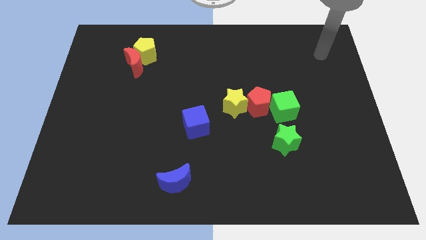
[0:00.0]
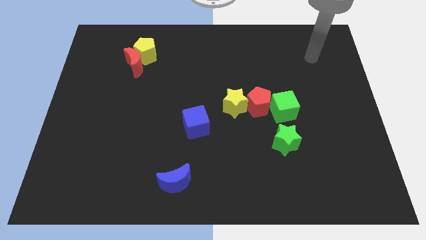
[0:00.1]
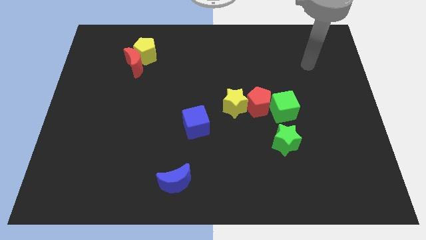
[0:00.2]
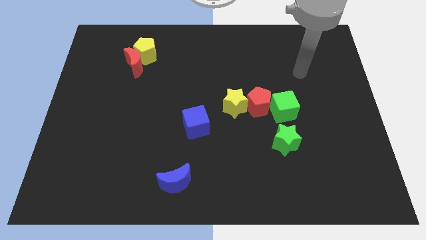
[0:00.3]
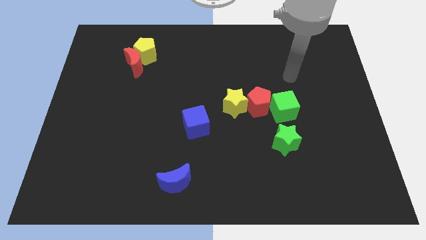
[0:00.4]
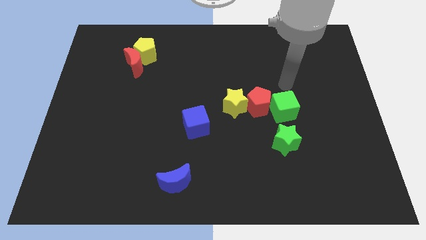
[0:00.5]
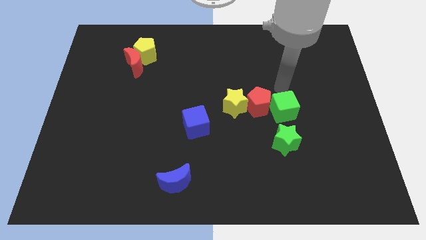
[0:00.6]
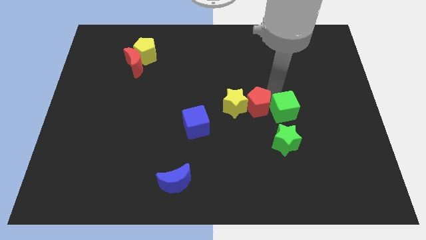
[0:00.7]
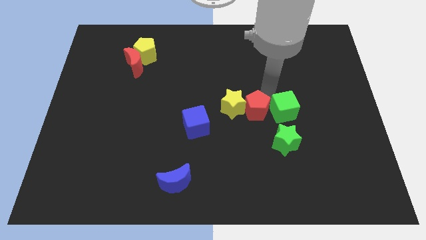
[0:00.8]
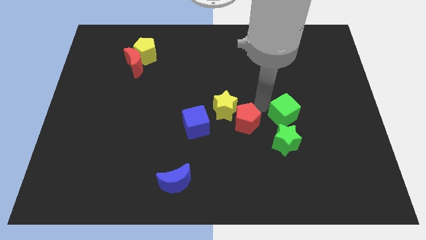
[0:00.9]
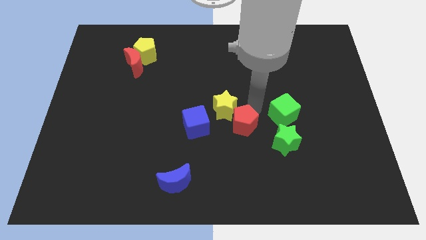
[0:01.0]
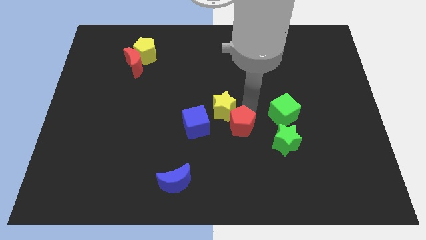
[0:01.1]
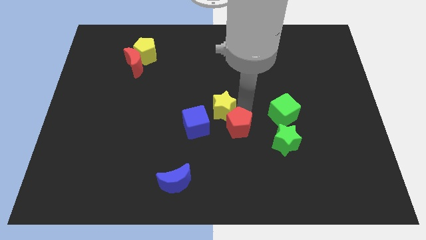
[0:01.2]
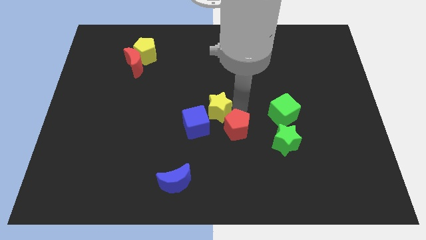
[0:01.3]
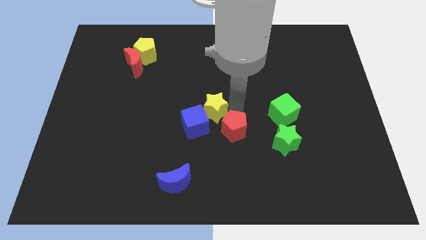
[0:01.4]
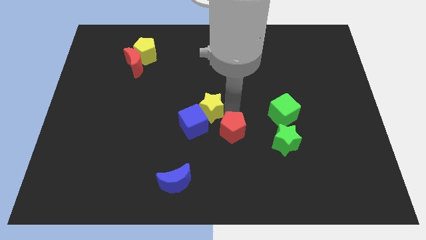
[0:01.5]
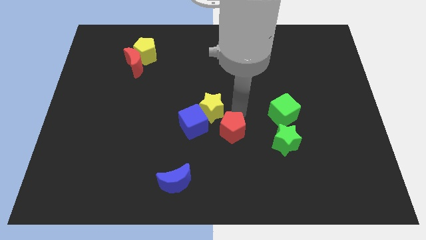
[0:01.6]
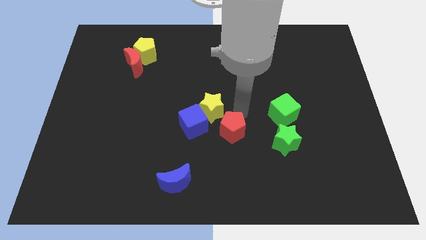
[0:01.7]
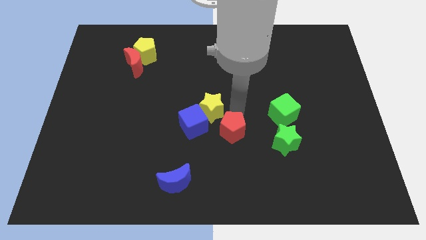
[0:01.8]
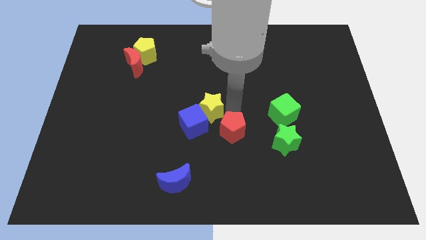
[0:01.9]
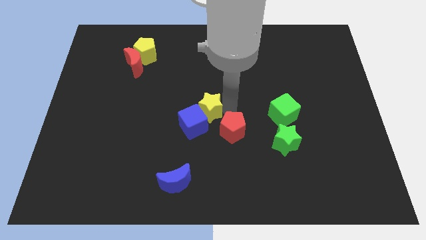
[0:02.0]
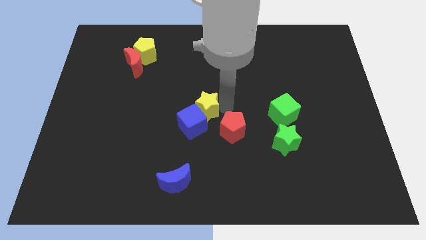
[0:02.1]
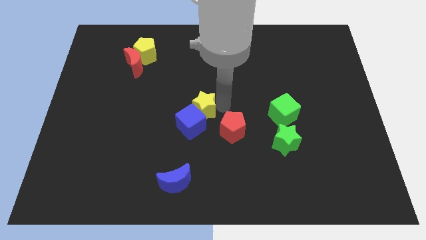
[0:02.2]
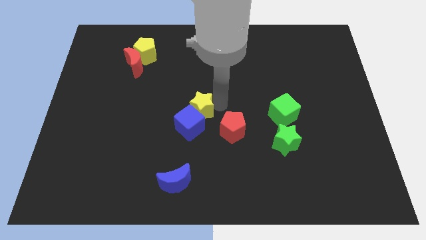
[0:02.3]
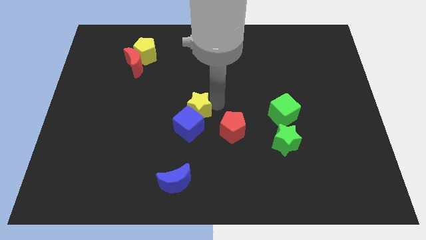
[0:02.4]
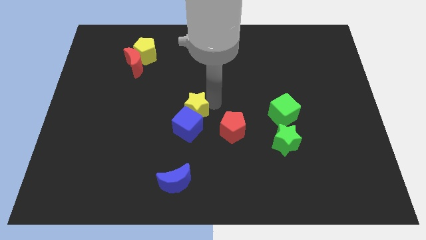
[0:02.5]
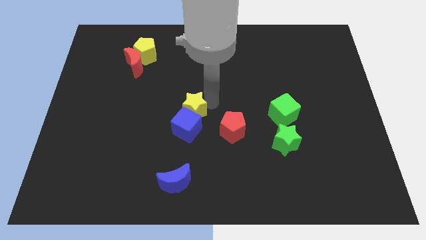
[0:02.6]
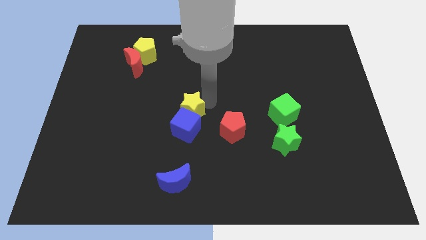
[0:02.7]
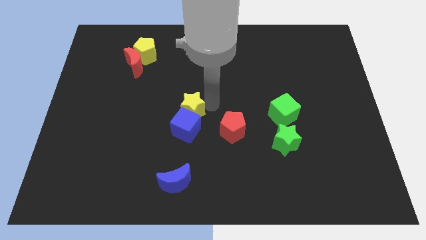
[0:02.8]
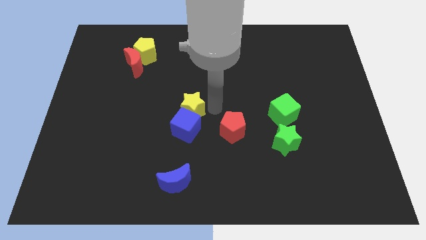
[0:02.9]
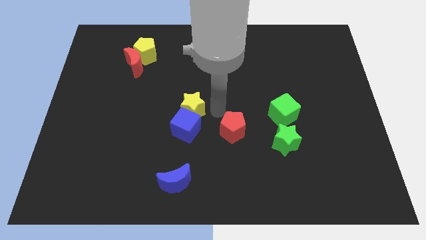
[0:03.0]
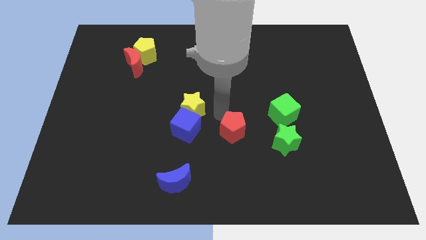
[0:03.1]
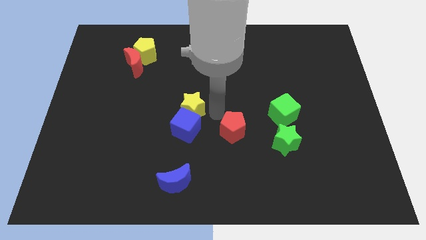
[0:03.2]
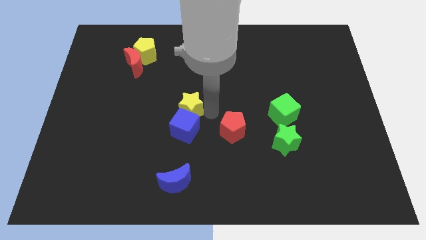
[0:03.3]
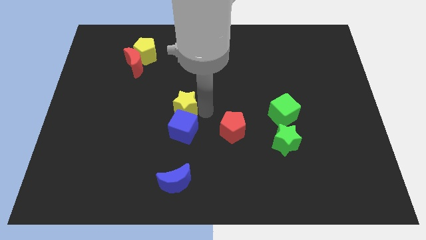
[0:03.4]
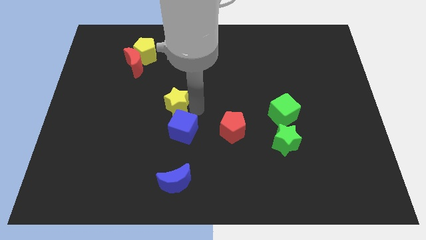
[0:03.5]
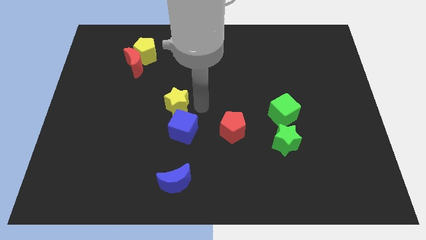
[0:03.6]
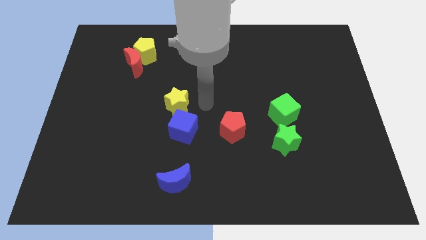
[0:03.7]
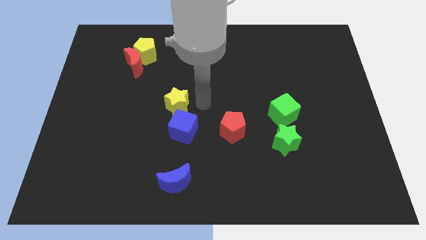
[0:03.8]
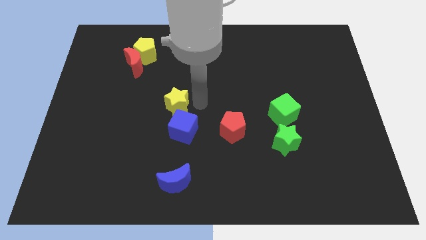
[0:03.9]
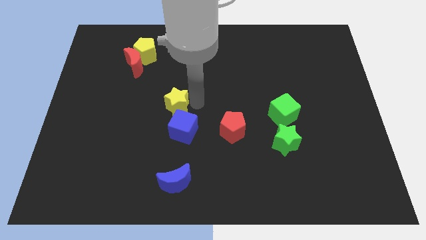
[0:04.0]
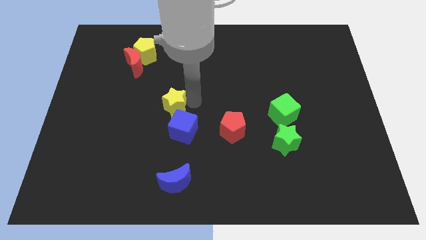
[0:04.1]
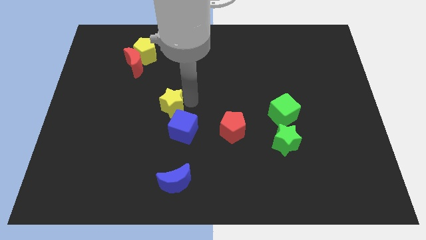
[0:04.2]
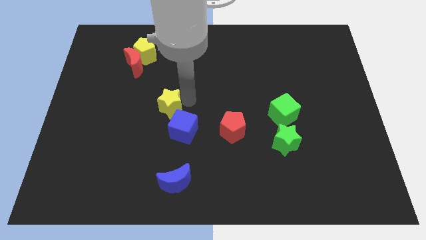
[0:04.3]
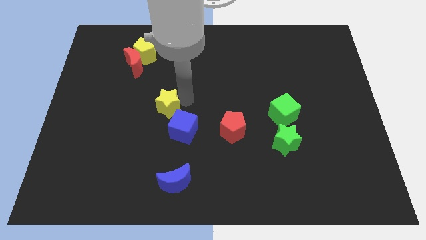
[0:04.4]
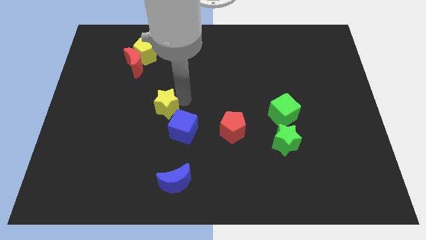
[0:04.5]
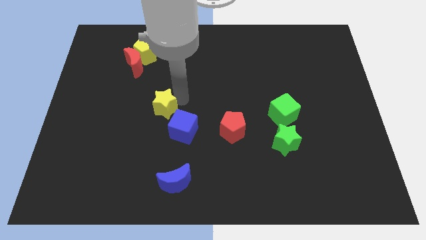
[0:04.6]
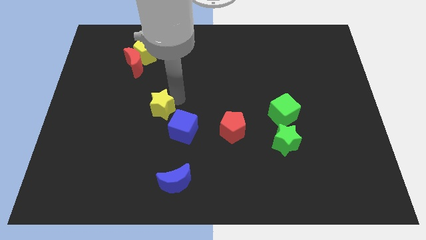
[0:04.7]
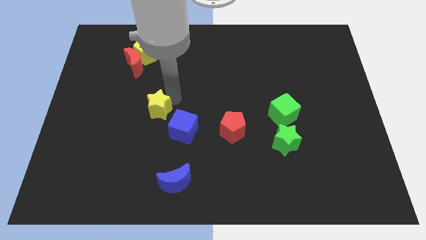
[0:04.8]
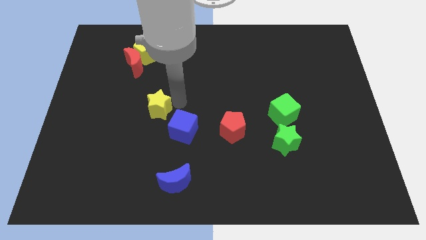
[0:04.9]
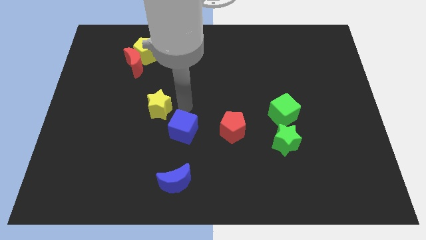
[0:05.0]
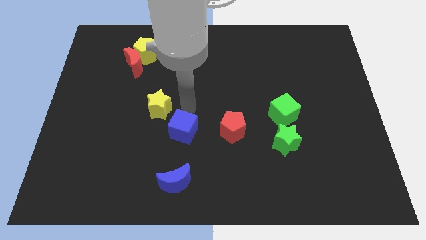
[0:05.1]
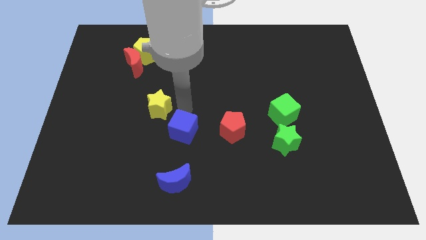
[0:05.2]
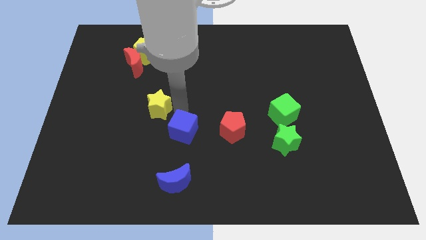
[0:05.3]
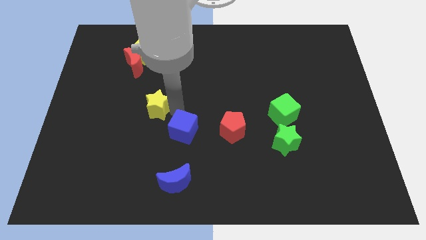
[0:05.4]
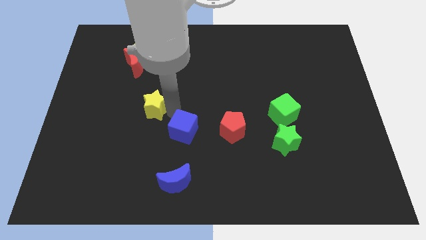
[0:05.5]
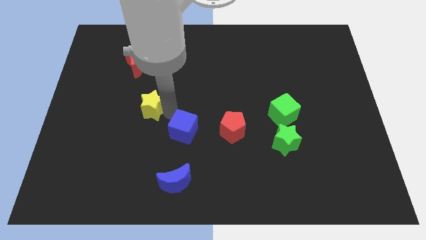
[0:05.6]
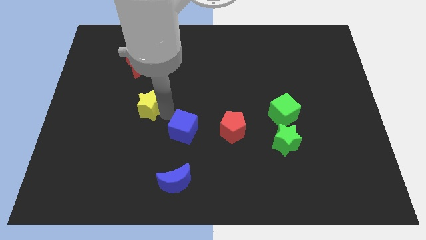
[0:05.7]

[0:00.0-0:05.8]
push the yellow star to the left

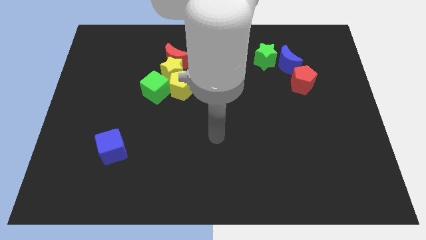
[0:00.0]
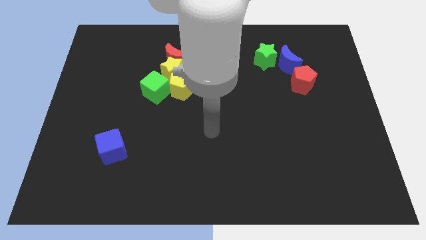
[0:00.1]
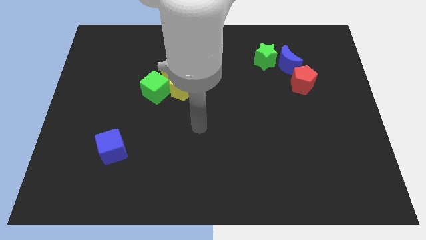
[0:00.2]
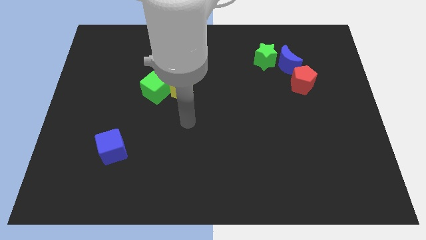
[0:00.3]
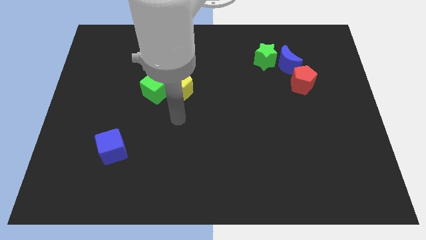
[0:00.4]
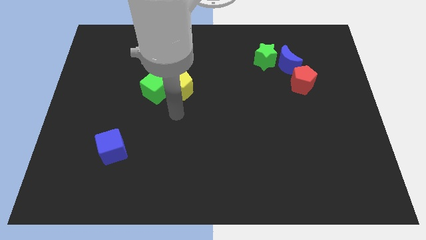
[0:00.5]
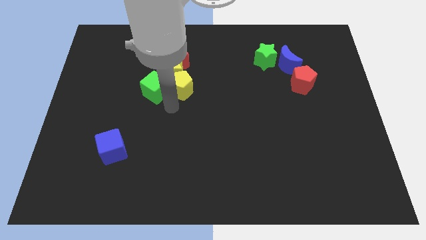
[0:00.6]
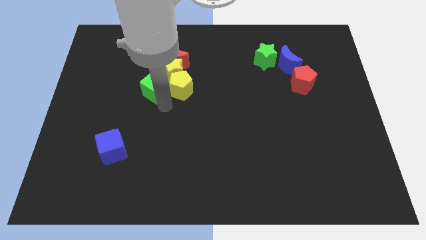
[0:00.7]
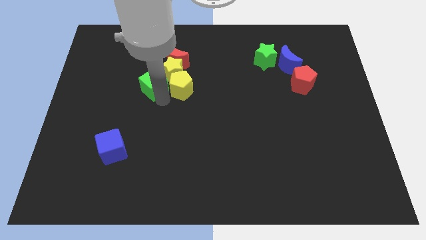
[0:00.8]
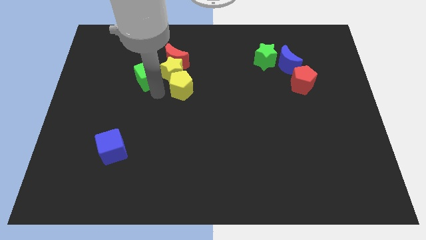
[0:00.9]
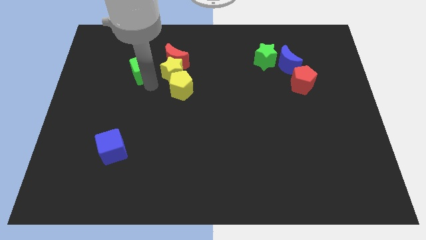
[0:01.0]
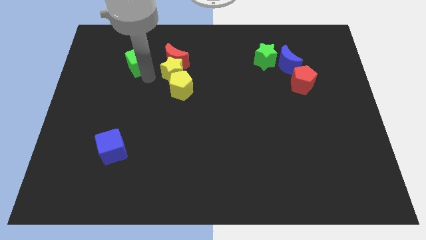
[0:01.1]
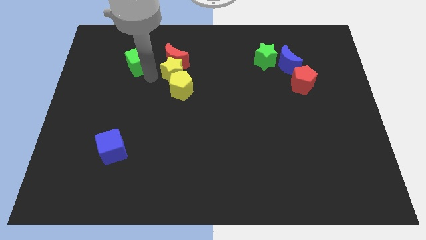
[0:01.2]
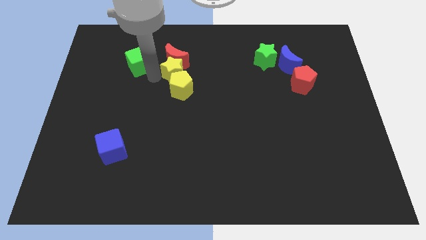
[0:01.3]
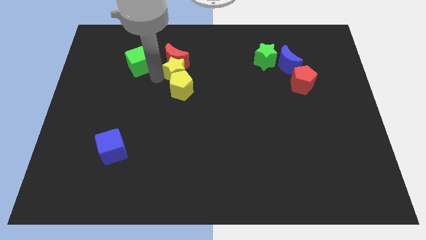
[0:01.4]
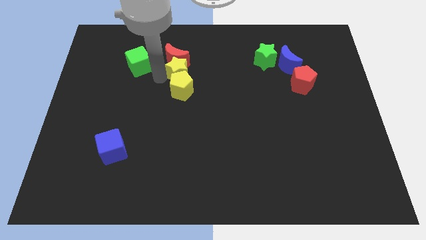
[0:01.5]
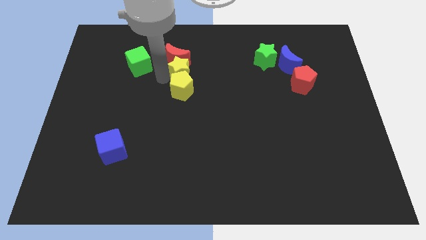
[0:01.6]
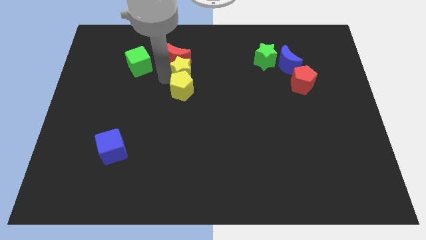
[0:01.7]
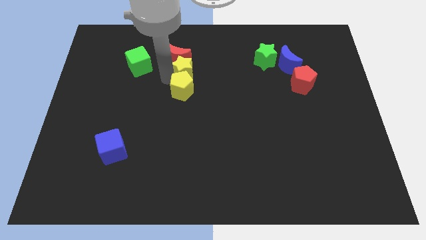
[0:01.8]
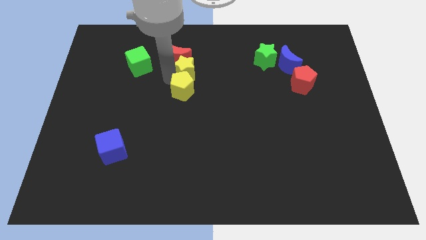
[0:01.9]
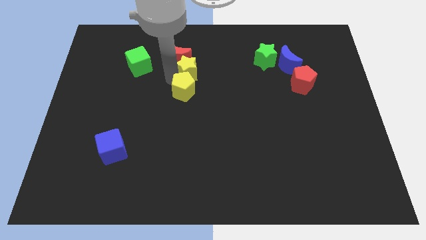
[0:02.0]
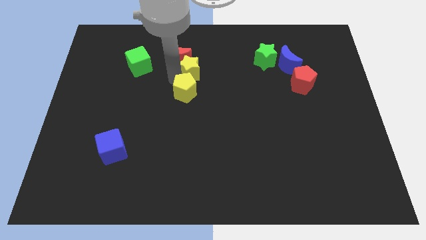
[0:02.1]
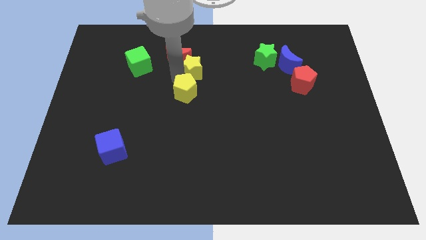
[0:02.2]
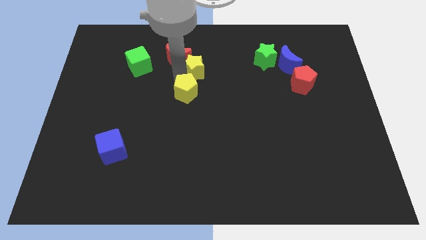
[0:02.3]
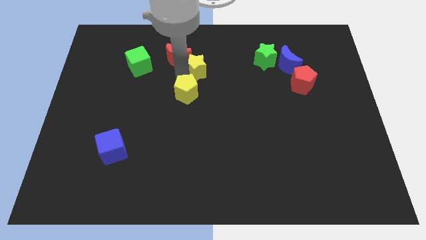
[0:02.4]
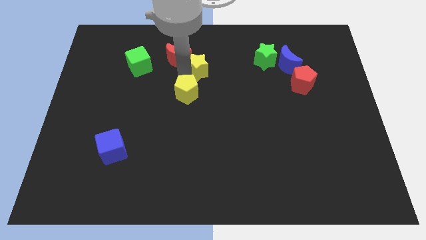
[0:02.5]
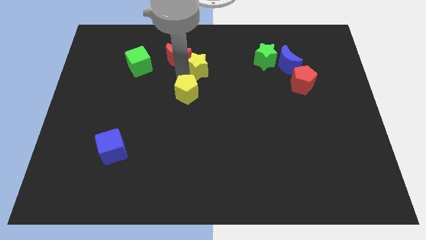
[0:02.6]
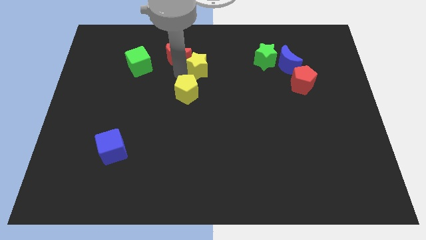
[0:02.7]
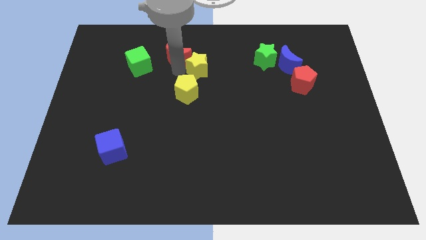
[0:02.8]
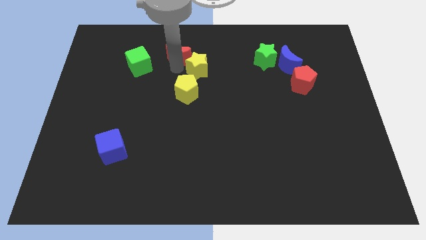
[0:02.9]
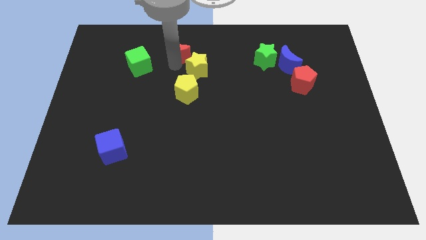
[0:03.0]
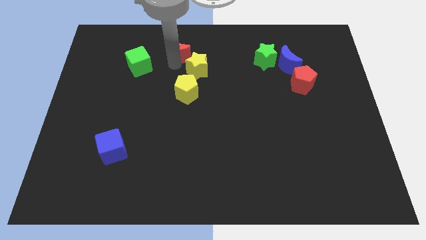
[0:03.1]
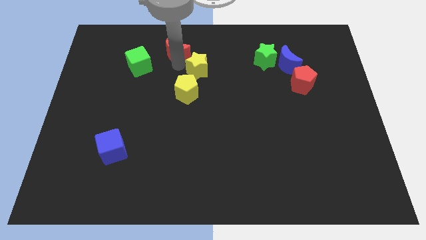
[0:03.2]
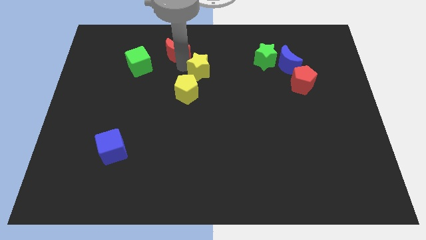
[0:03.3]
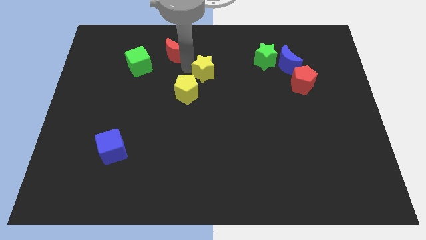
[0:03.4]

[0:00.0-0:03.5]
push the yellow star to the right slightly
